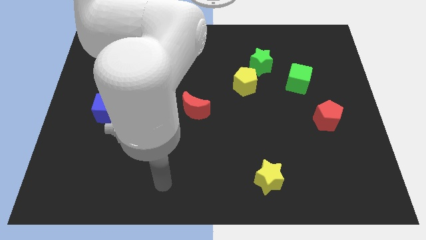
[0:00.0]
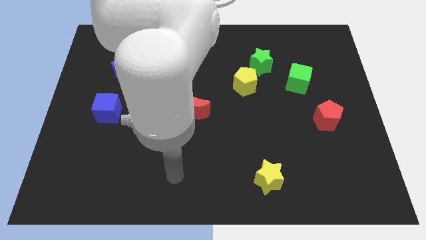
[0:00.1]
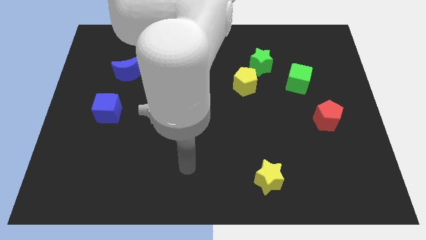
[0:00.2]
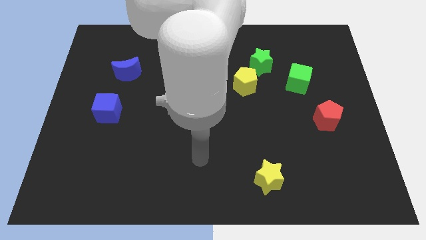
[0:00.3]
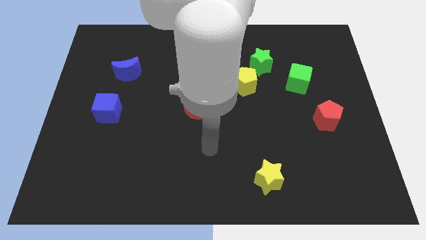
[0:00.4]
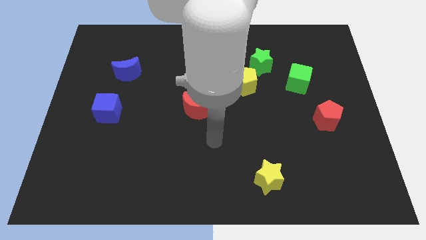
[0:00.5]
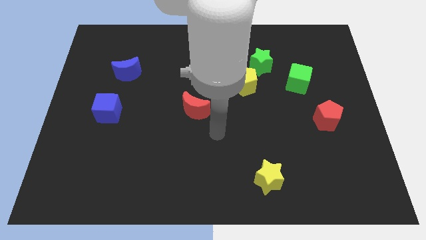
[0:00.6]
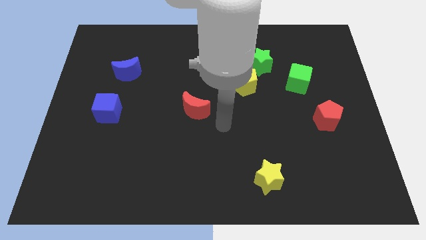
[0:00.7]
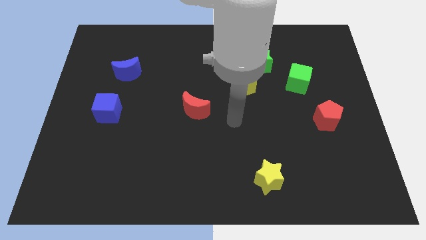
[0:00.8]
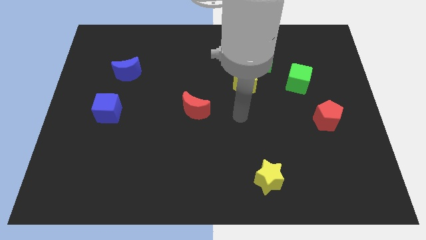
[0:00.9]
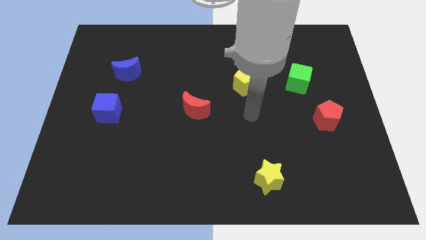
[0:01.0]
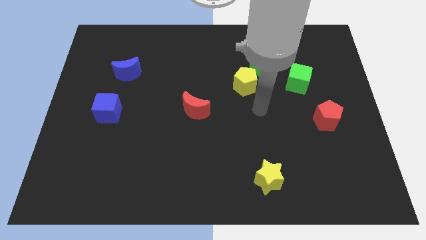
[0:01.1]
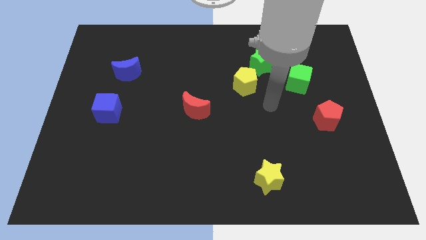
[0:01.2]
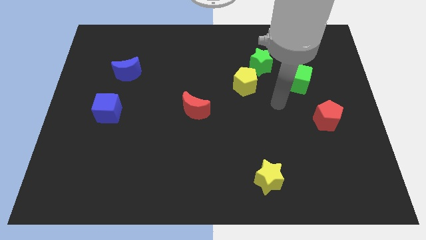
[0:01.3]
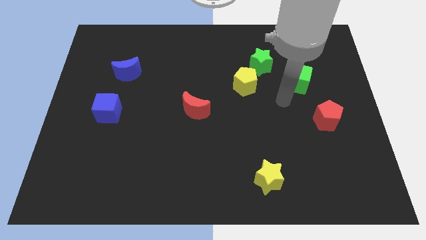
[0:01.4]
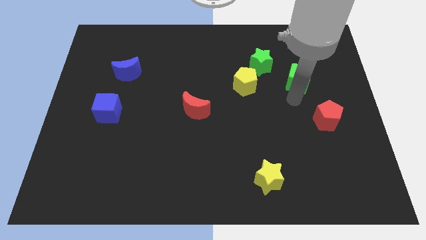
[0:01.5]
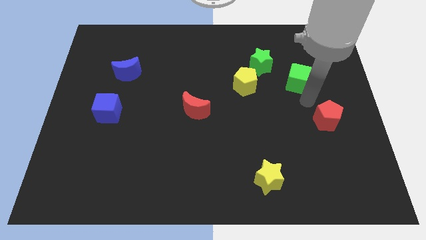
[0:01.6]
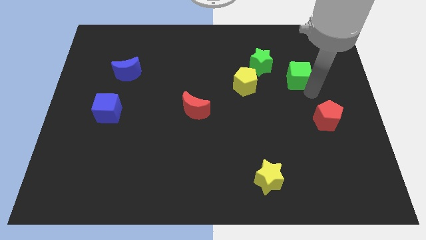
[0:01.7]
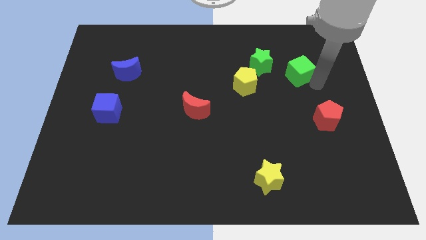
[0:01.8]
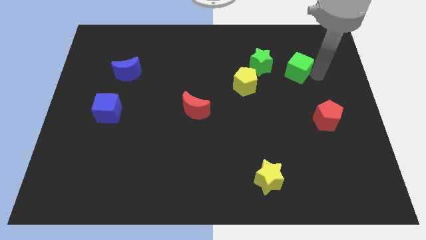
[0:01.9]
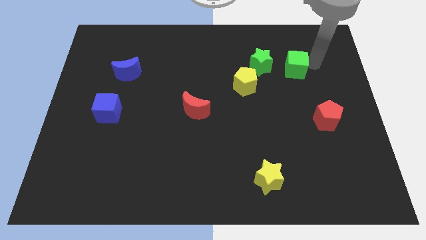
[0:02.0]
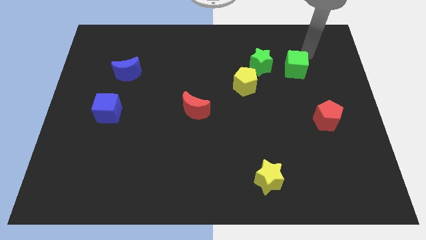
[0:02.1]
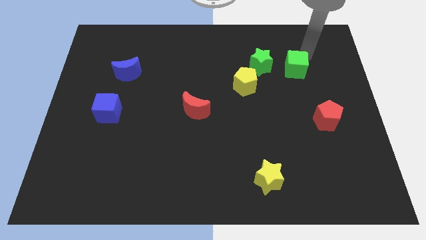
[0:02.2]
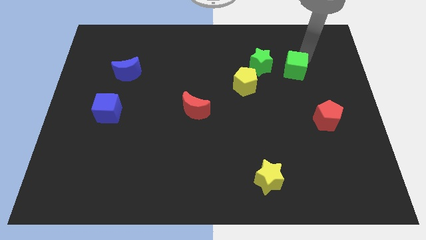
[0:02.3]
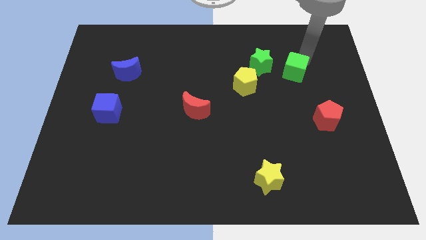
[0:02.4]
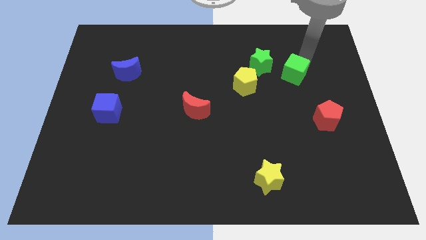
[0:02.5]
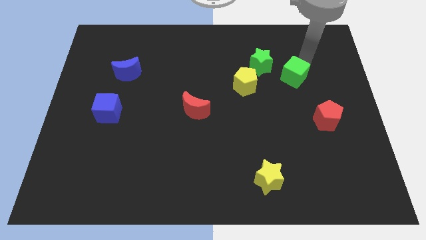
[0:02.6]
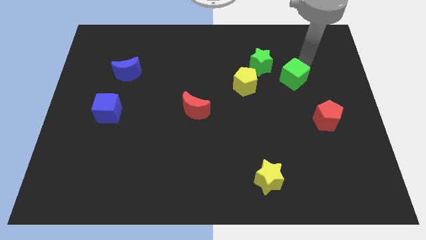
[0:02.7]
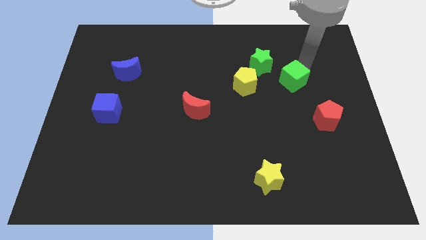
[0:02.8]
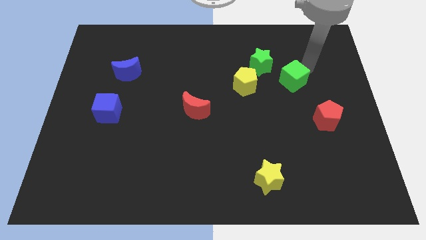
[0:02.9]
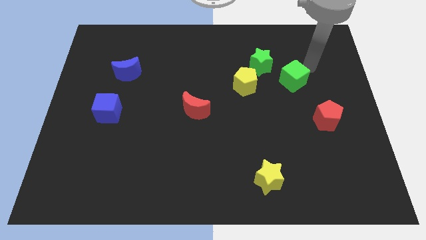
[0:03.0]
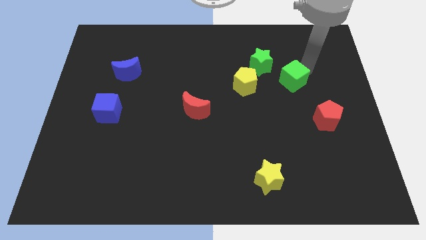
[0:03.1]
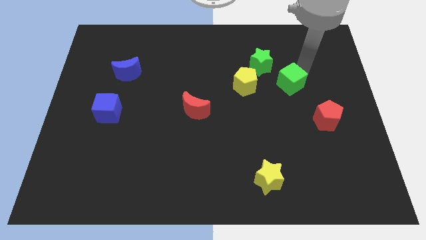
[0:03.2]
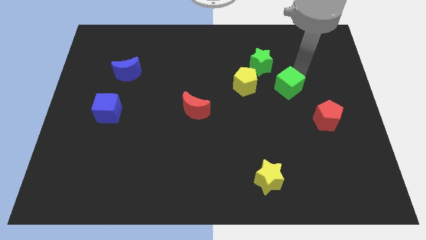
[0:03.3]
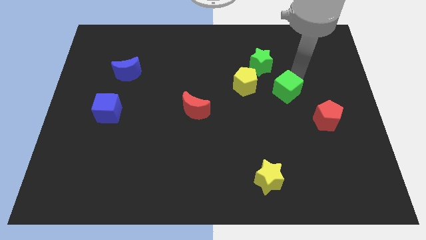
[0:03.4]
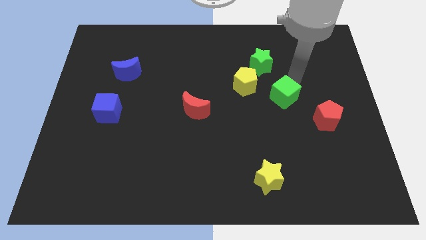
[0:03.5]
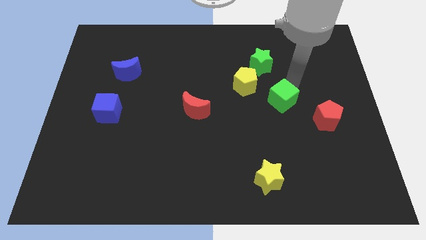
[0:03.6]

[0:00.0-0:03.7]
slightly slide the green cube diagonally down and left

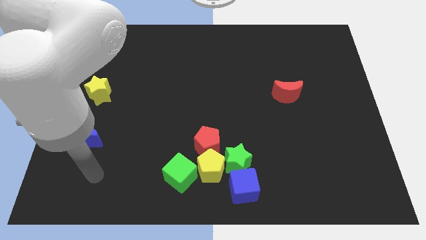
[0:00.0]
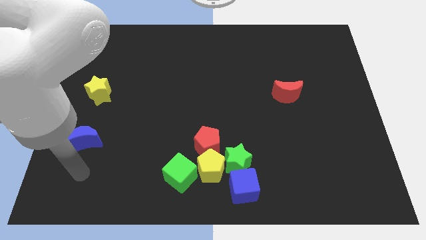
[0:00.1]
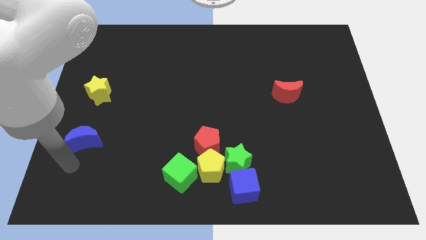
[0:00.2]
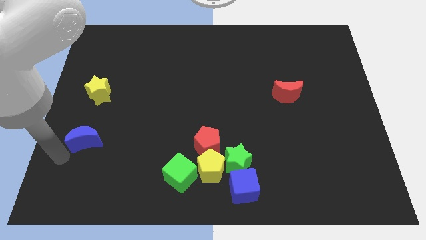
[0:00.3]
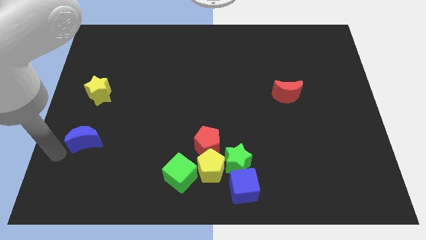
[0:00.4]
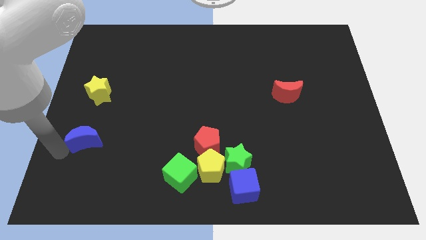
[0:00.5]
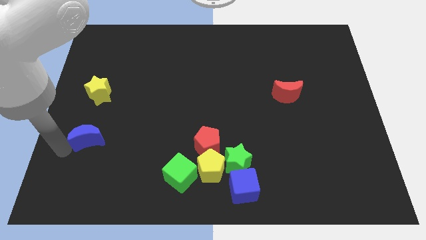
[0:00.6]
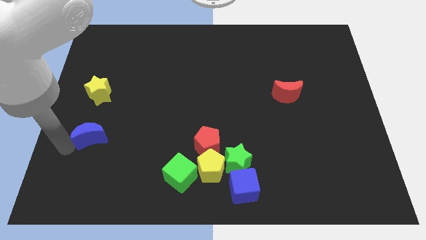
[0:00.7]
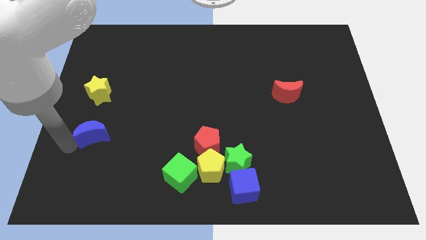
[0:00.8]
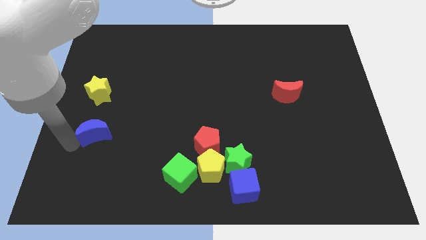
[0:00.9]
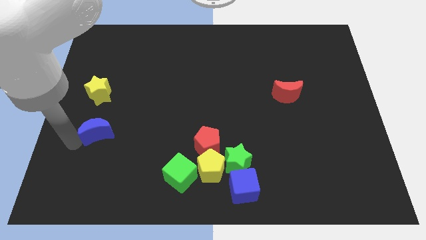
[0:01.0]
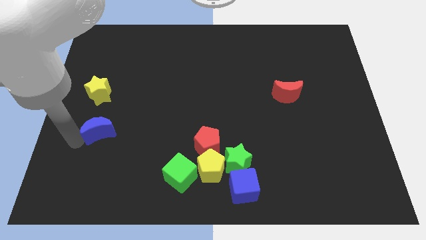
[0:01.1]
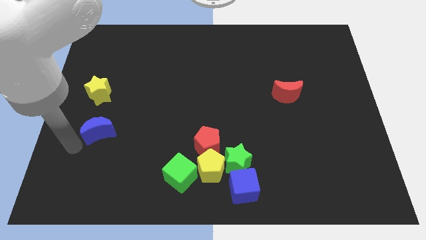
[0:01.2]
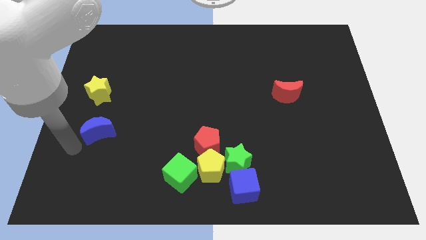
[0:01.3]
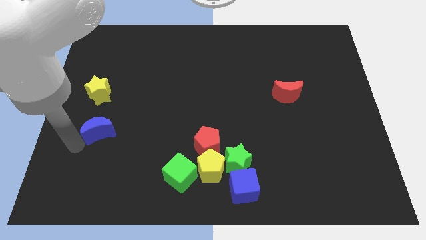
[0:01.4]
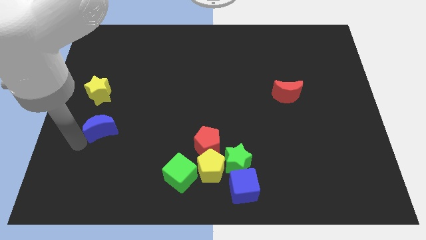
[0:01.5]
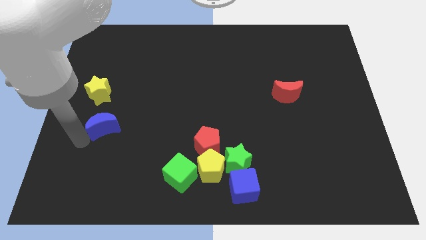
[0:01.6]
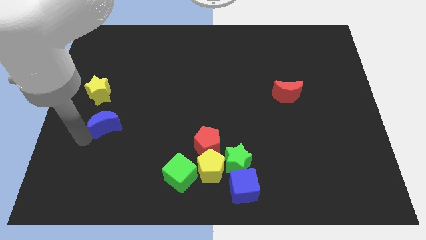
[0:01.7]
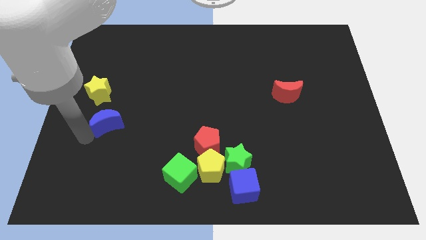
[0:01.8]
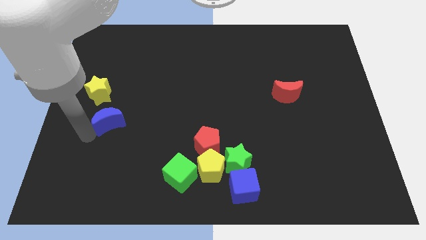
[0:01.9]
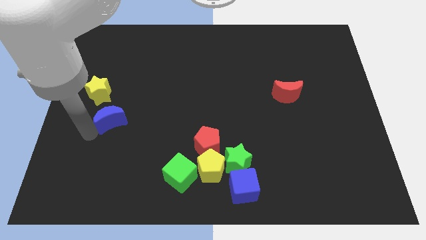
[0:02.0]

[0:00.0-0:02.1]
slightly push the blue moon upwards and to the right diagonally

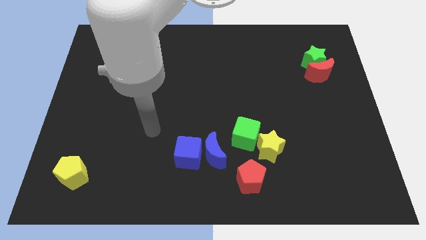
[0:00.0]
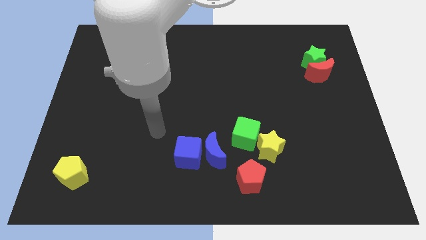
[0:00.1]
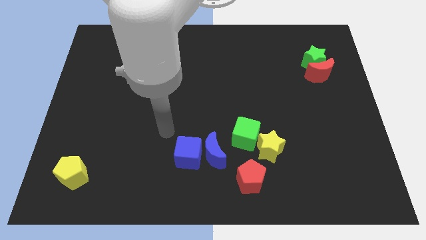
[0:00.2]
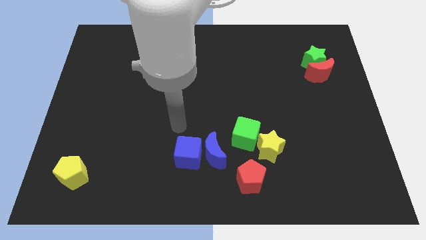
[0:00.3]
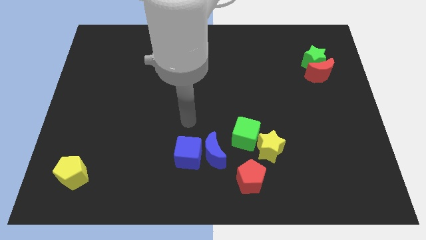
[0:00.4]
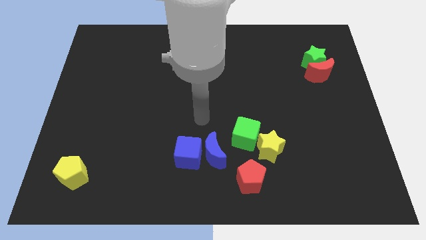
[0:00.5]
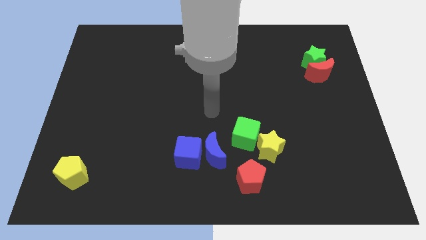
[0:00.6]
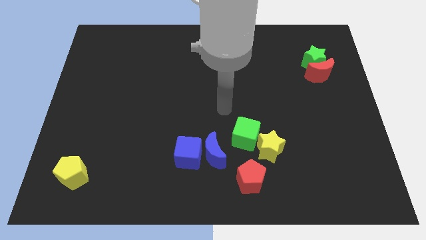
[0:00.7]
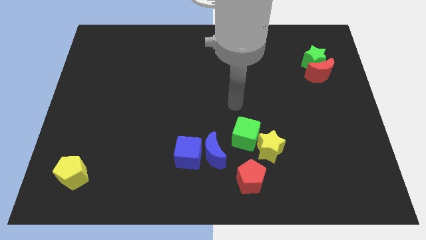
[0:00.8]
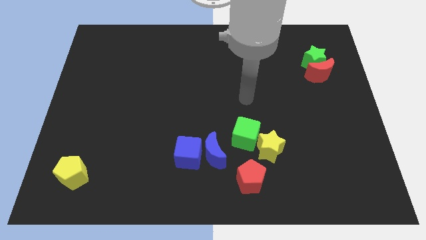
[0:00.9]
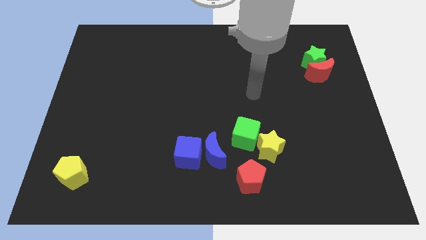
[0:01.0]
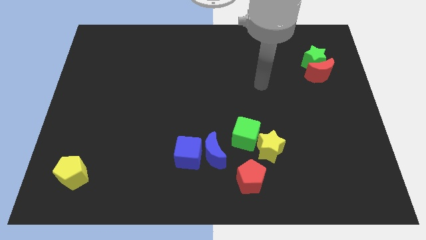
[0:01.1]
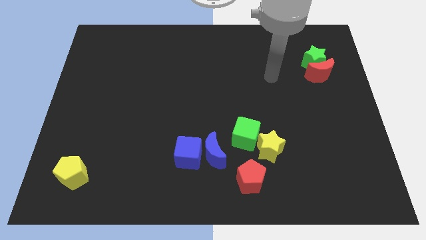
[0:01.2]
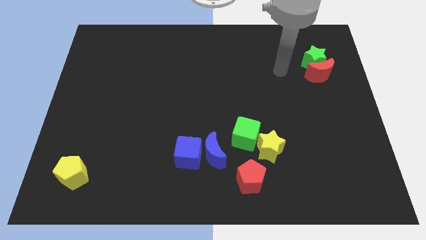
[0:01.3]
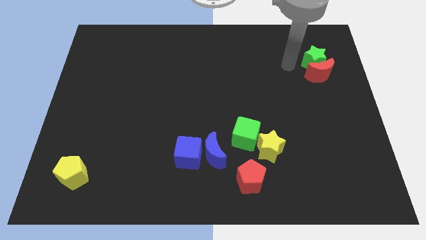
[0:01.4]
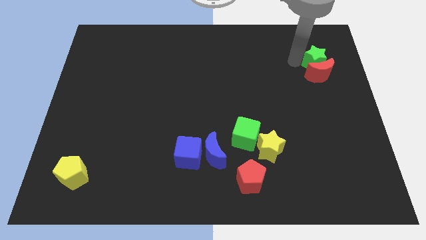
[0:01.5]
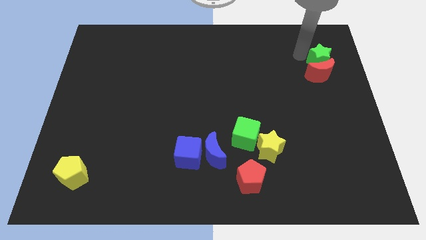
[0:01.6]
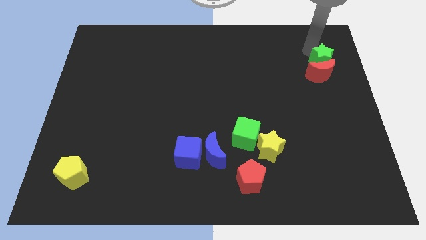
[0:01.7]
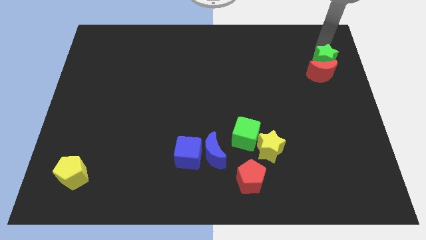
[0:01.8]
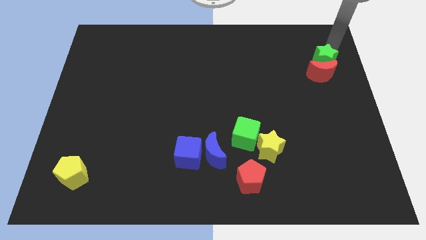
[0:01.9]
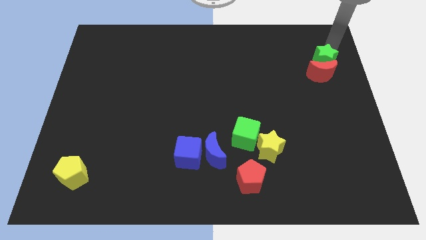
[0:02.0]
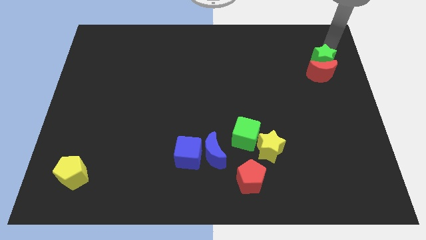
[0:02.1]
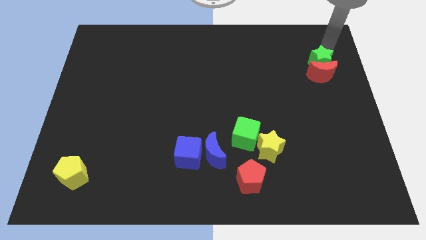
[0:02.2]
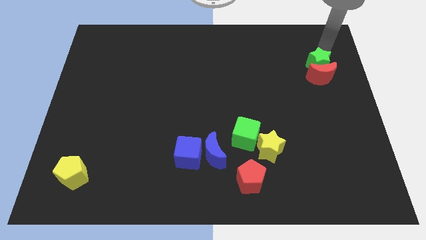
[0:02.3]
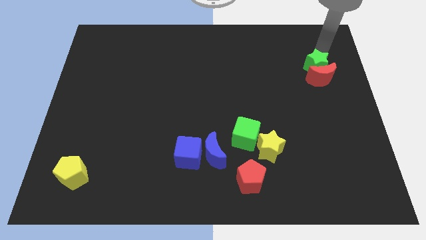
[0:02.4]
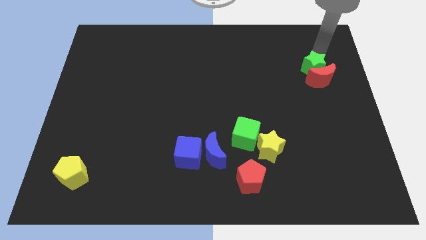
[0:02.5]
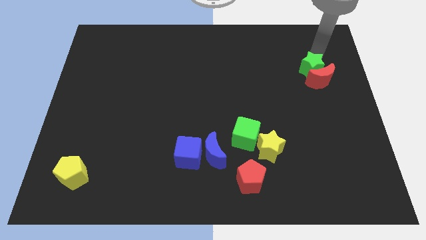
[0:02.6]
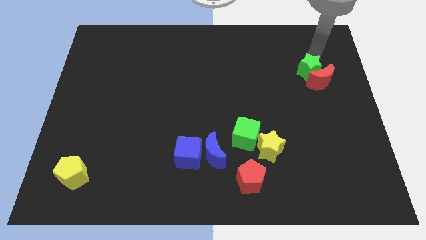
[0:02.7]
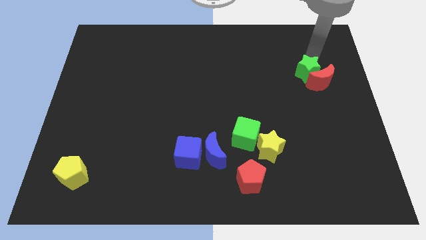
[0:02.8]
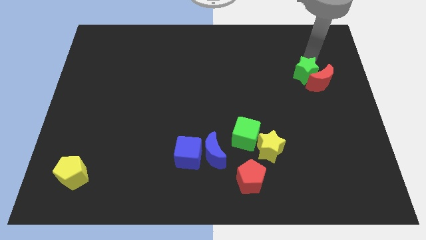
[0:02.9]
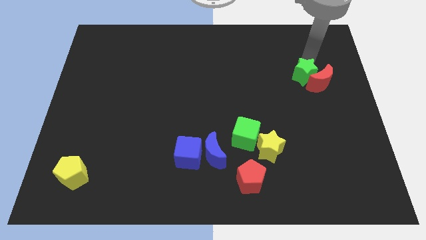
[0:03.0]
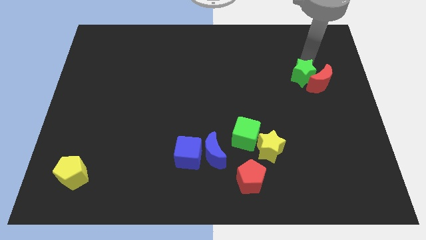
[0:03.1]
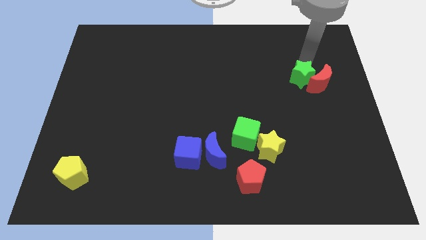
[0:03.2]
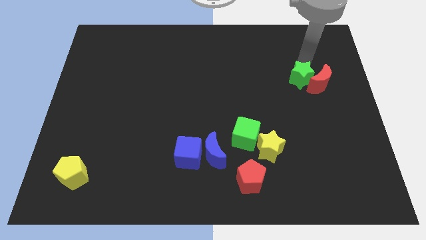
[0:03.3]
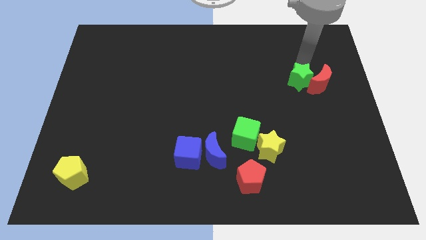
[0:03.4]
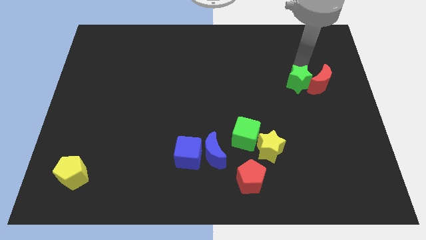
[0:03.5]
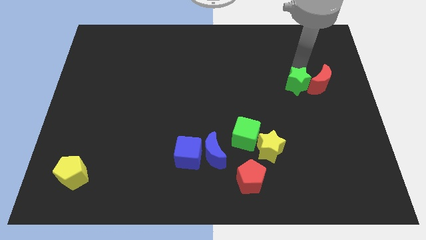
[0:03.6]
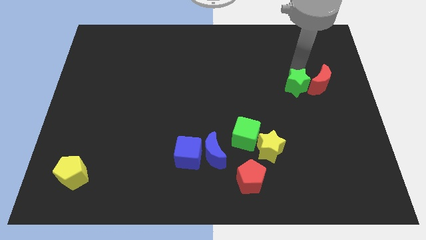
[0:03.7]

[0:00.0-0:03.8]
slightly slide the green star down
